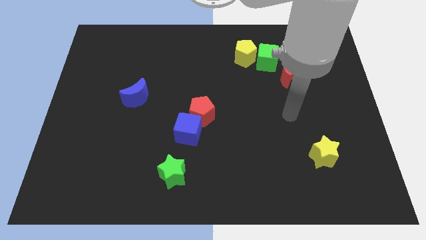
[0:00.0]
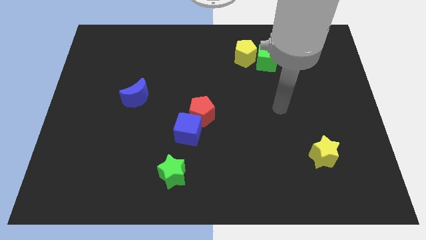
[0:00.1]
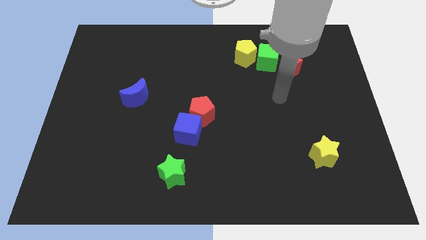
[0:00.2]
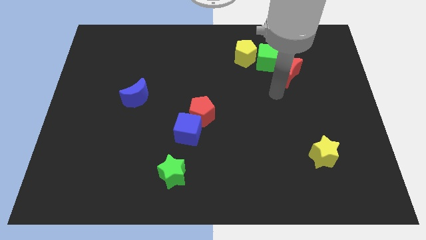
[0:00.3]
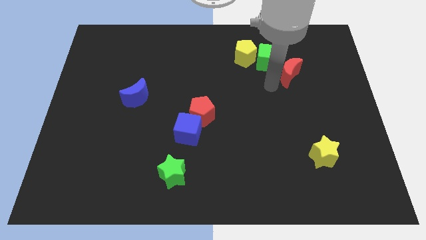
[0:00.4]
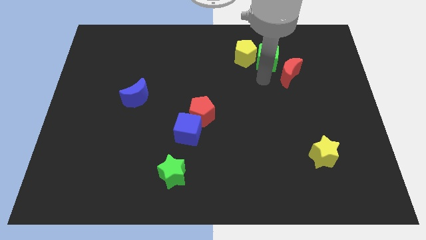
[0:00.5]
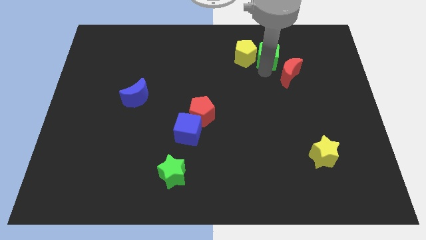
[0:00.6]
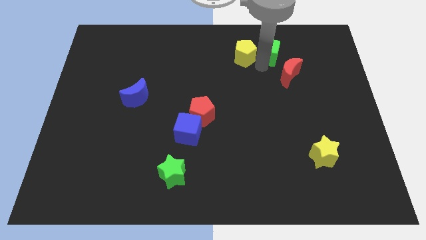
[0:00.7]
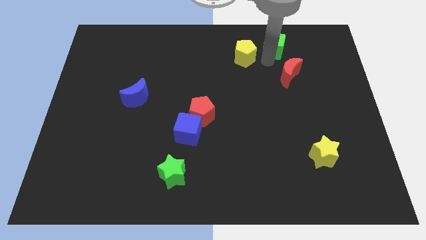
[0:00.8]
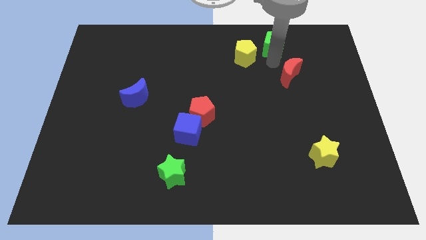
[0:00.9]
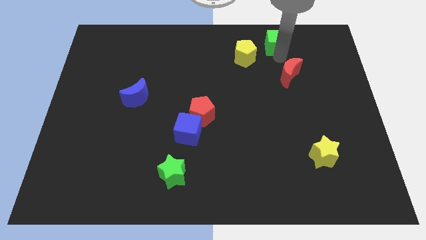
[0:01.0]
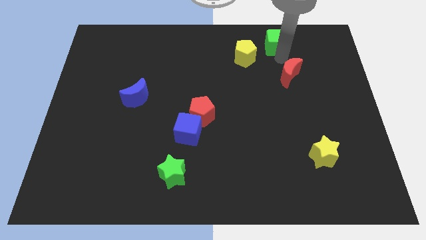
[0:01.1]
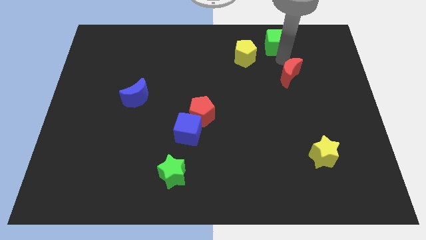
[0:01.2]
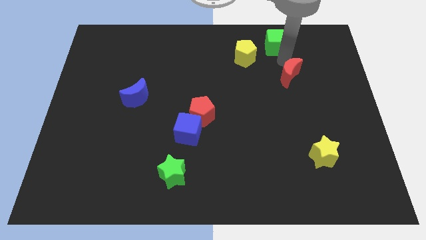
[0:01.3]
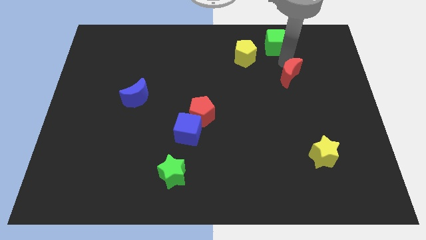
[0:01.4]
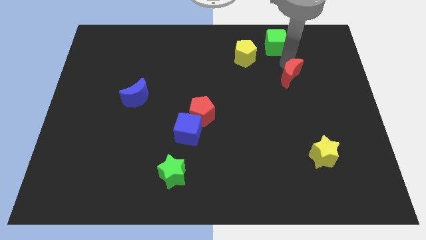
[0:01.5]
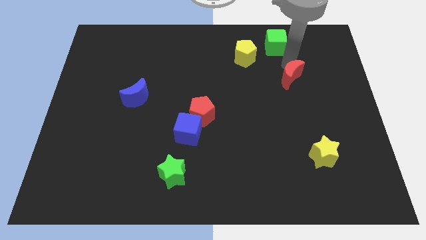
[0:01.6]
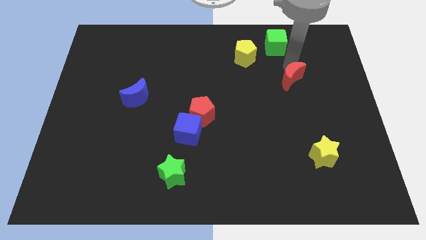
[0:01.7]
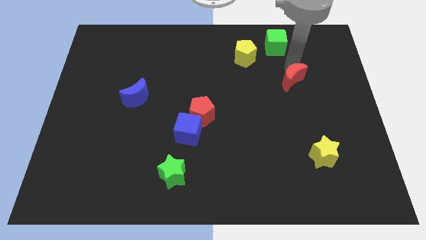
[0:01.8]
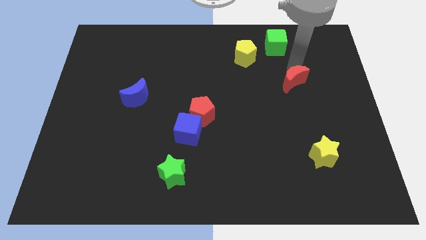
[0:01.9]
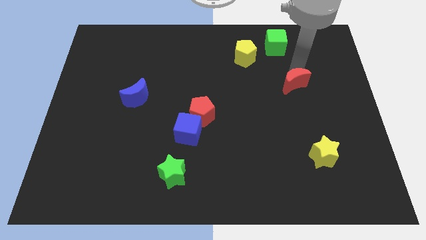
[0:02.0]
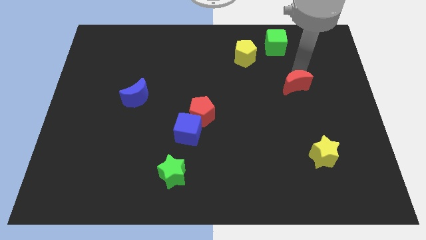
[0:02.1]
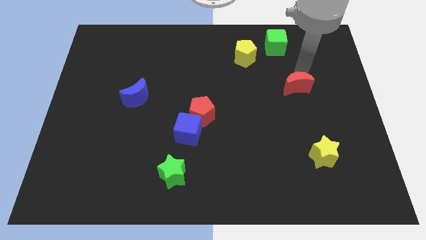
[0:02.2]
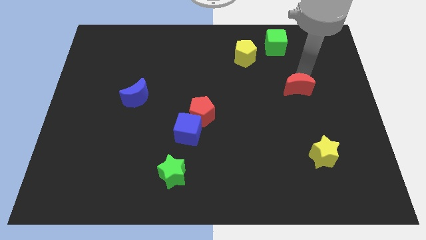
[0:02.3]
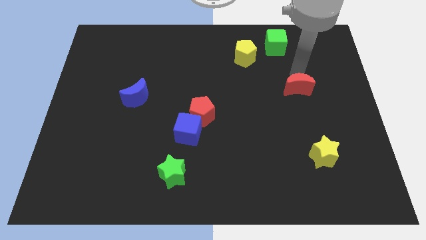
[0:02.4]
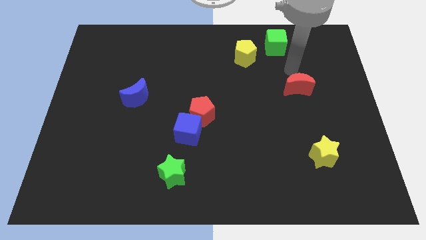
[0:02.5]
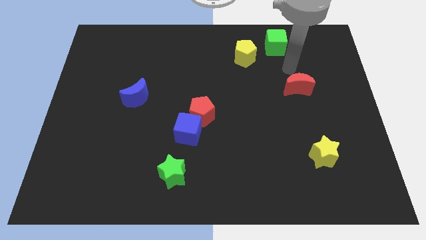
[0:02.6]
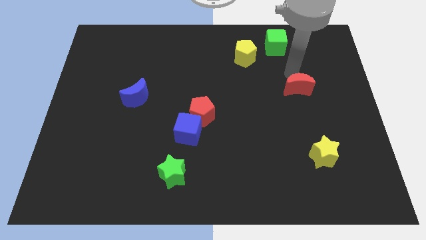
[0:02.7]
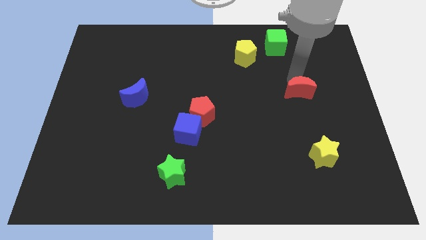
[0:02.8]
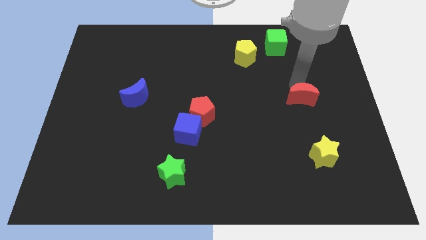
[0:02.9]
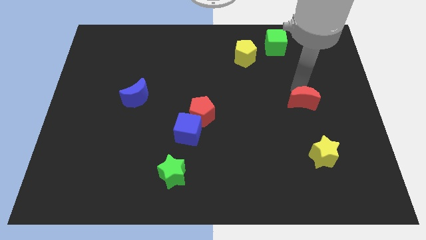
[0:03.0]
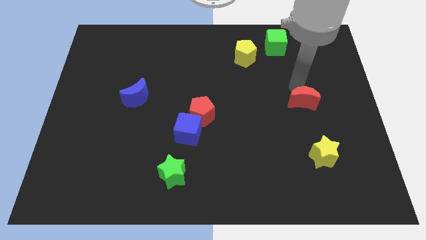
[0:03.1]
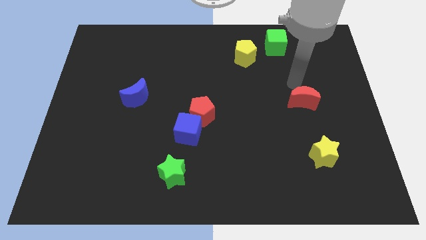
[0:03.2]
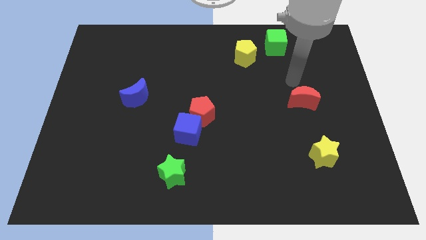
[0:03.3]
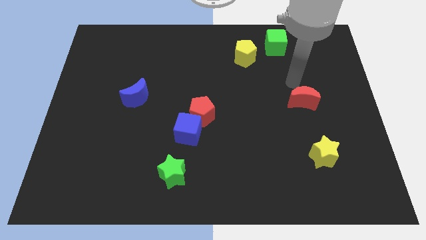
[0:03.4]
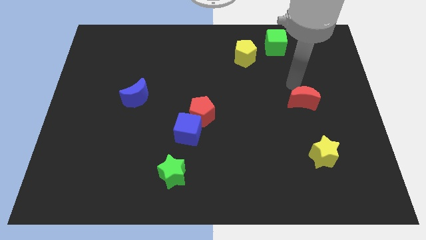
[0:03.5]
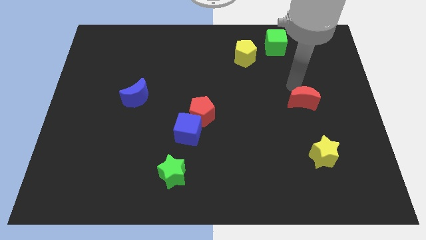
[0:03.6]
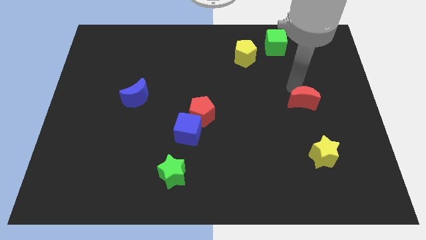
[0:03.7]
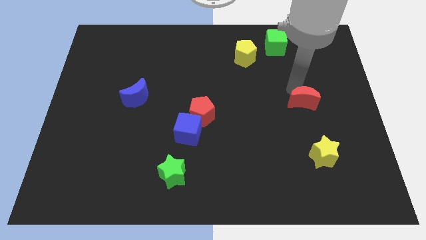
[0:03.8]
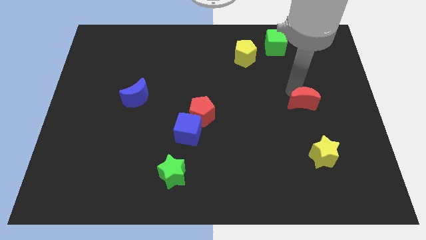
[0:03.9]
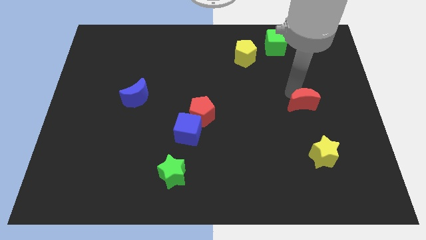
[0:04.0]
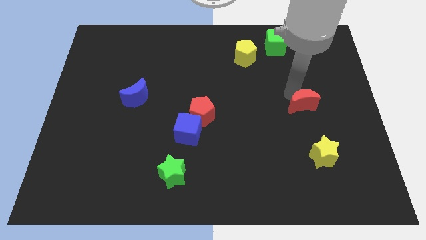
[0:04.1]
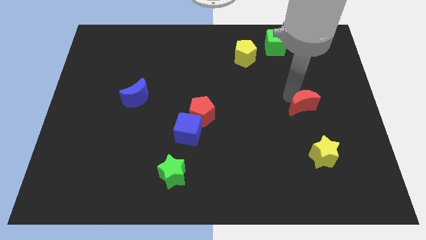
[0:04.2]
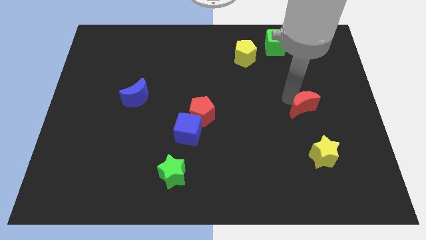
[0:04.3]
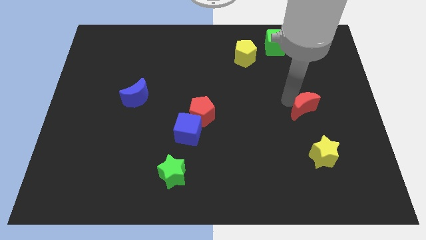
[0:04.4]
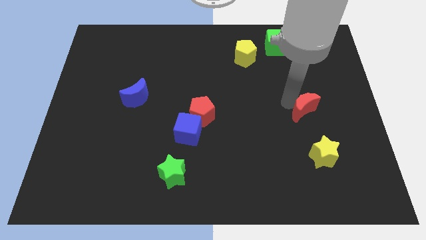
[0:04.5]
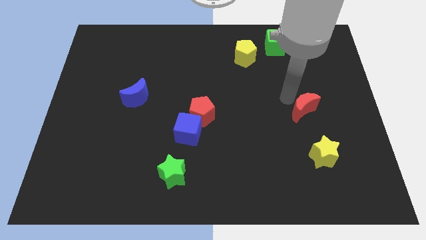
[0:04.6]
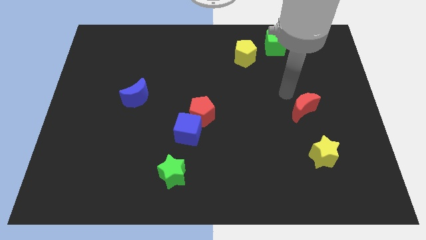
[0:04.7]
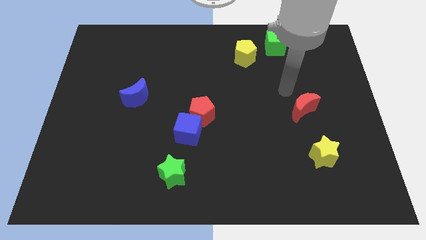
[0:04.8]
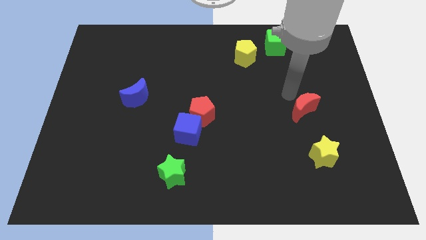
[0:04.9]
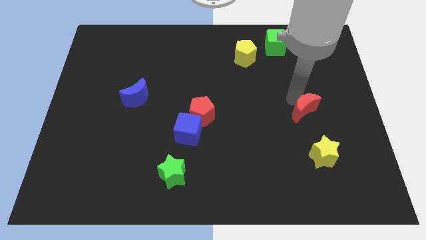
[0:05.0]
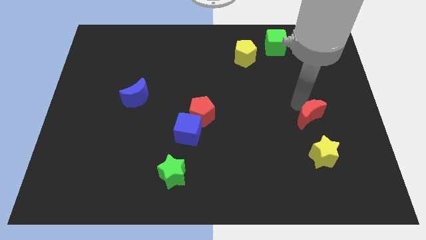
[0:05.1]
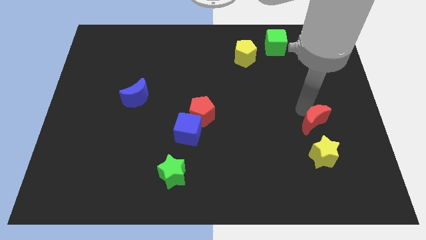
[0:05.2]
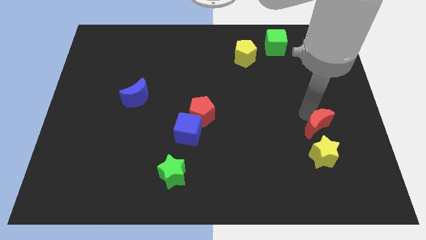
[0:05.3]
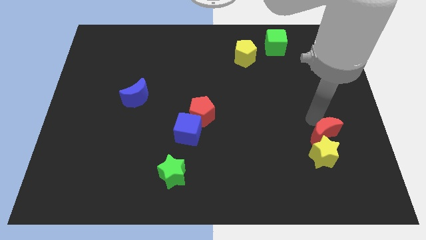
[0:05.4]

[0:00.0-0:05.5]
move the red moon next to the yellow star

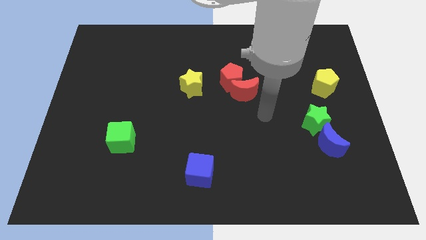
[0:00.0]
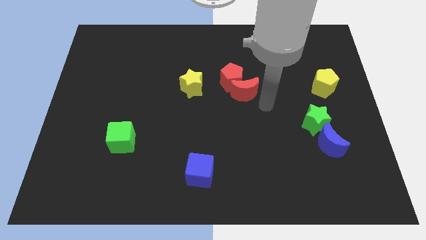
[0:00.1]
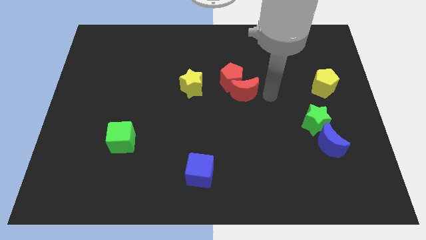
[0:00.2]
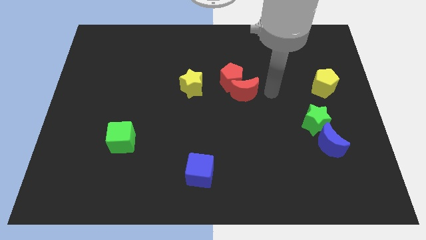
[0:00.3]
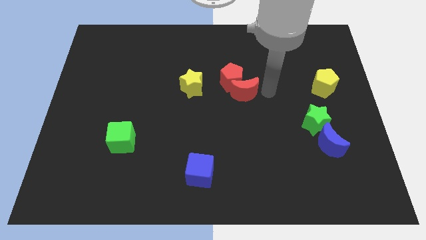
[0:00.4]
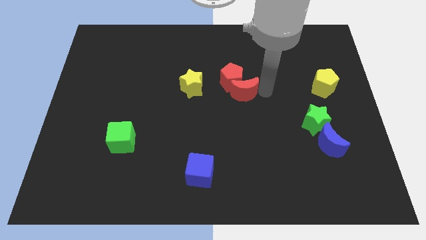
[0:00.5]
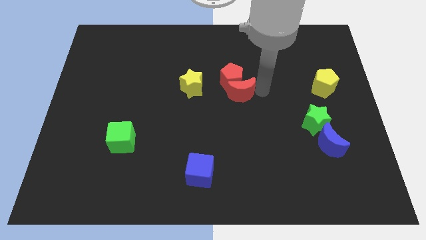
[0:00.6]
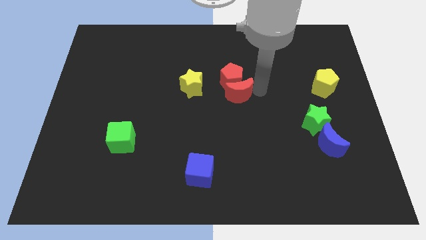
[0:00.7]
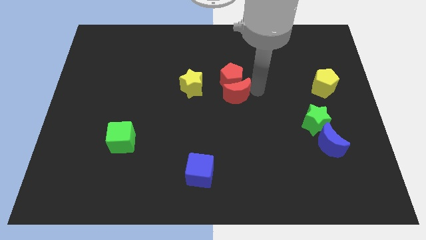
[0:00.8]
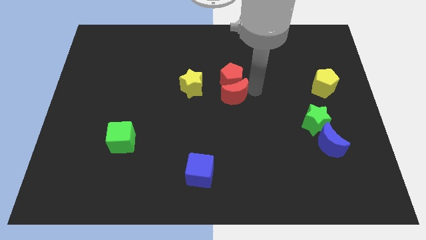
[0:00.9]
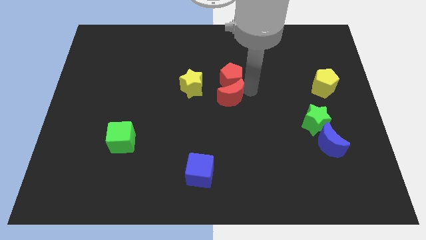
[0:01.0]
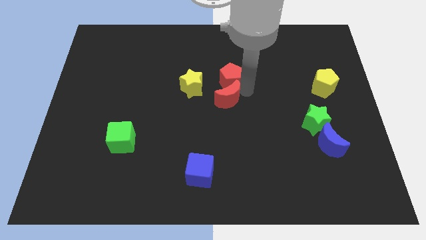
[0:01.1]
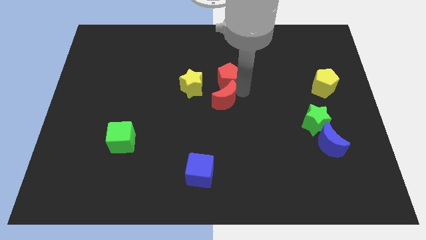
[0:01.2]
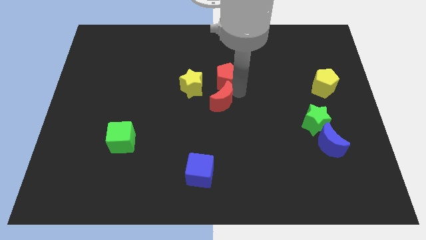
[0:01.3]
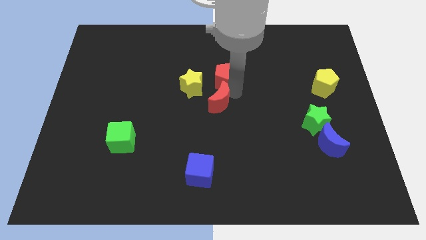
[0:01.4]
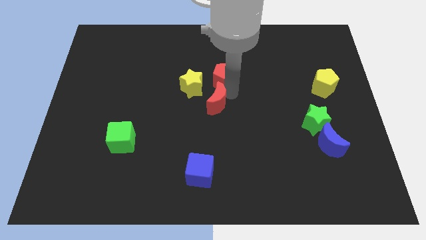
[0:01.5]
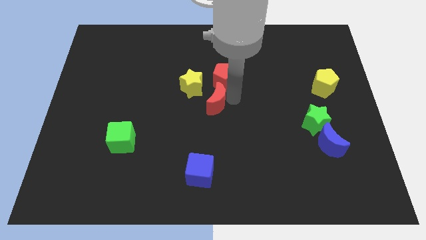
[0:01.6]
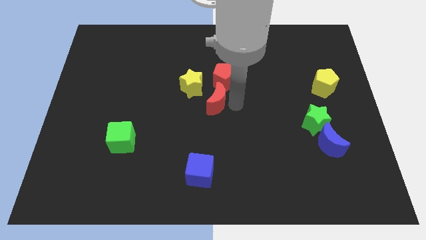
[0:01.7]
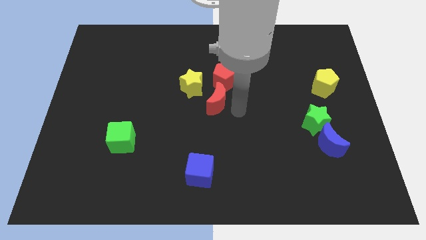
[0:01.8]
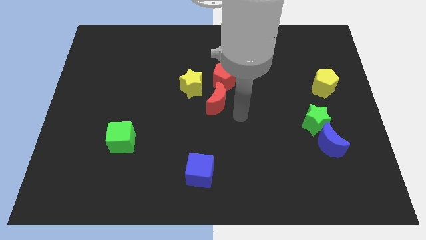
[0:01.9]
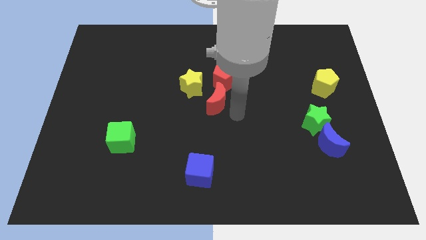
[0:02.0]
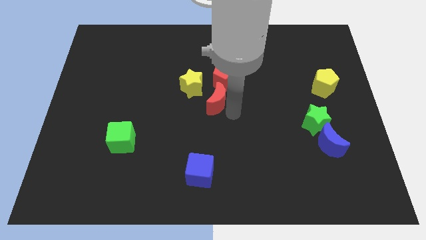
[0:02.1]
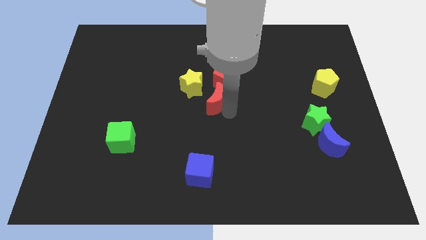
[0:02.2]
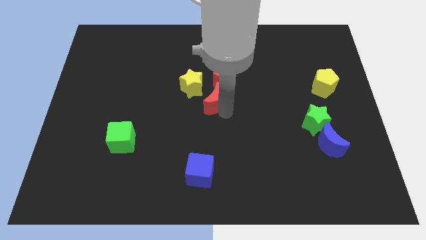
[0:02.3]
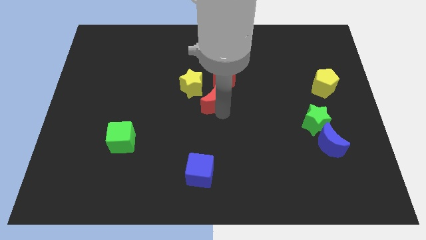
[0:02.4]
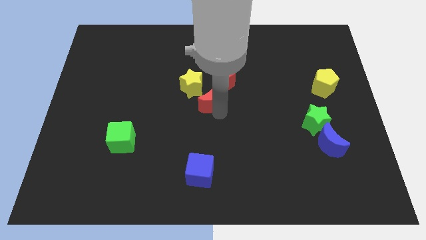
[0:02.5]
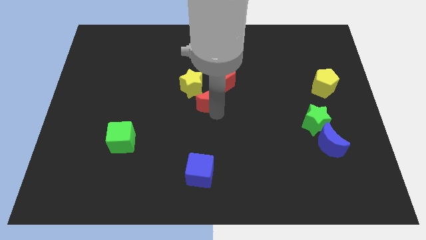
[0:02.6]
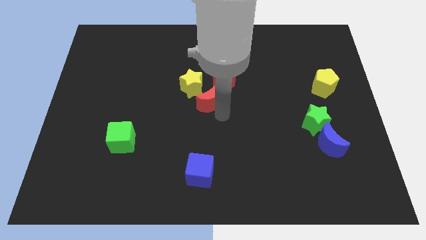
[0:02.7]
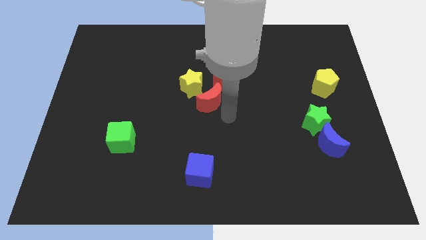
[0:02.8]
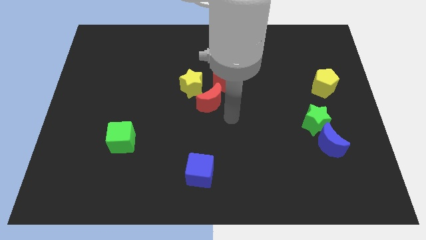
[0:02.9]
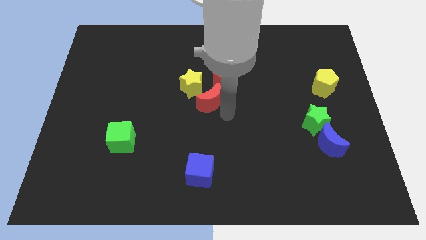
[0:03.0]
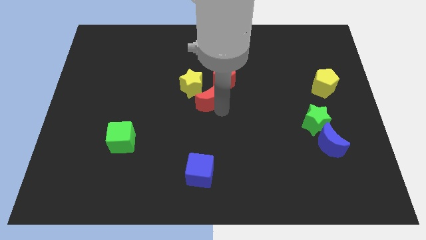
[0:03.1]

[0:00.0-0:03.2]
push the red moon to the yellow star
